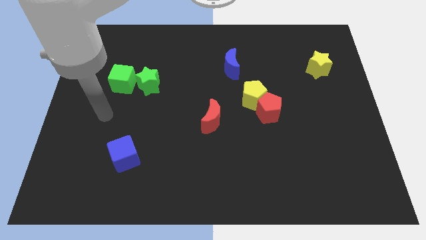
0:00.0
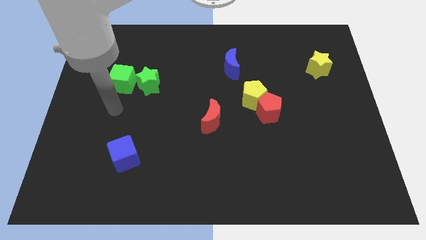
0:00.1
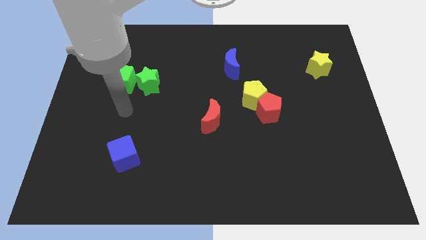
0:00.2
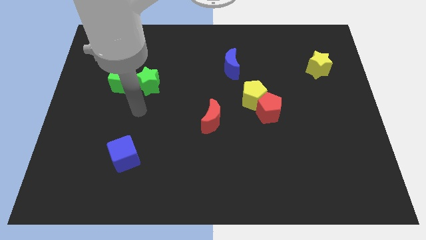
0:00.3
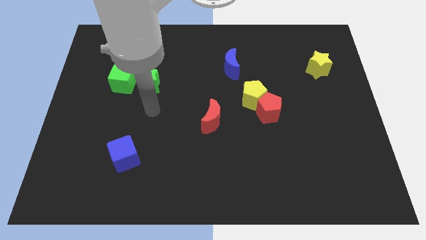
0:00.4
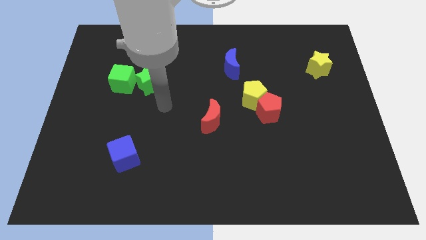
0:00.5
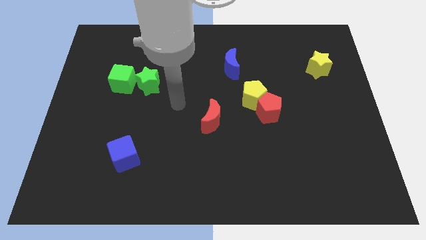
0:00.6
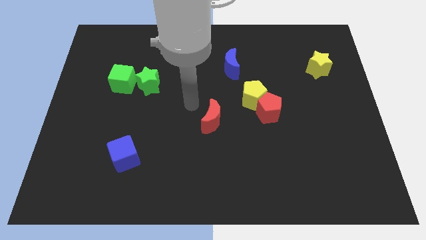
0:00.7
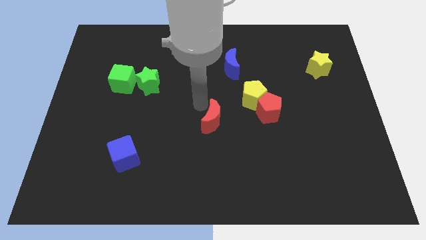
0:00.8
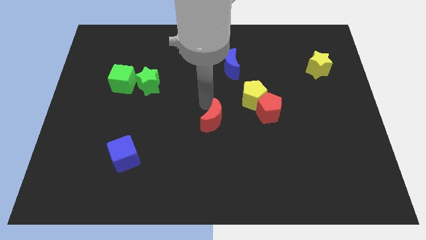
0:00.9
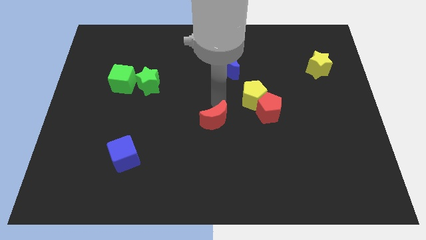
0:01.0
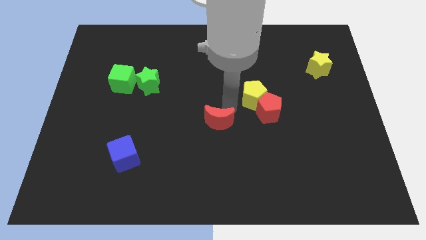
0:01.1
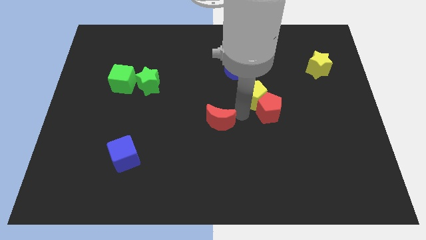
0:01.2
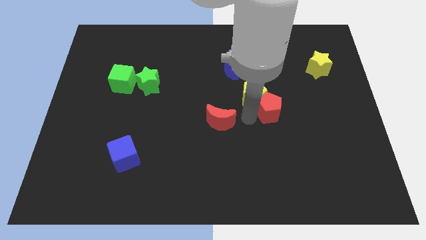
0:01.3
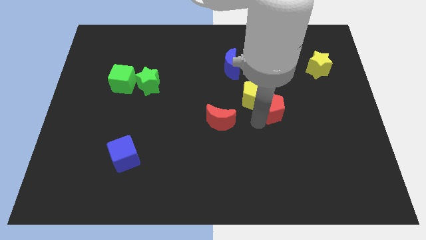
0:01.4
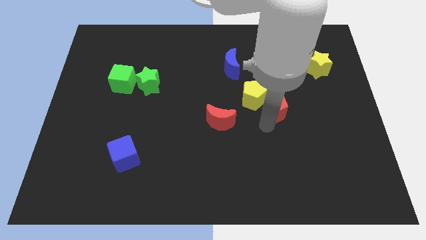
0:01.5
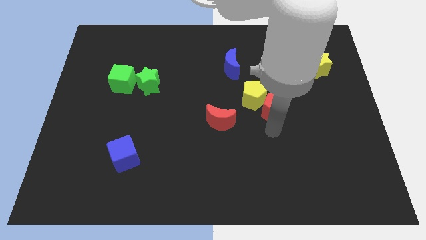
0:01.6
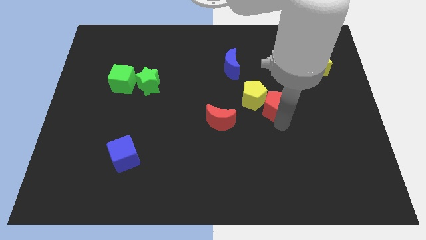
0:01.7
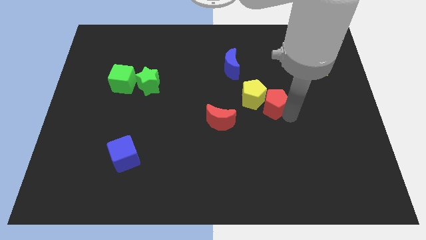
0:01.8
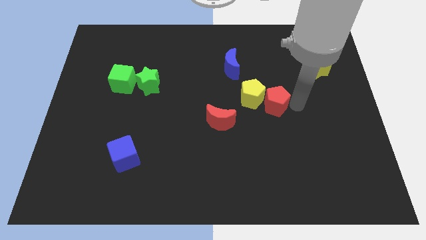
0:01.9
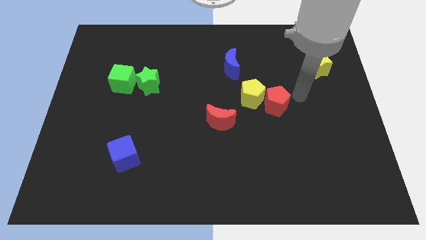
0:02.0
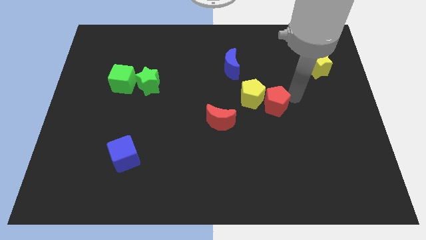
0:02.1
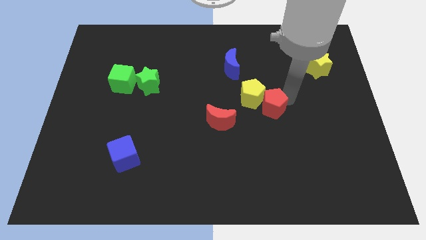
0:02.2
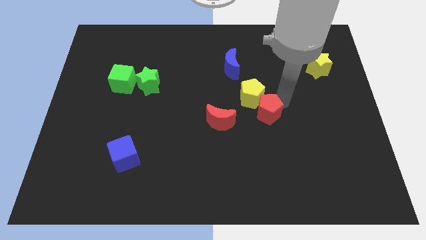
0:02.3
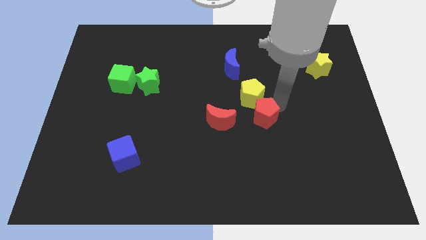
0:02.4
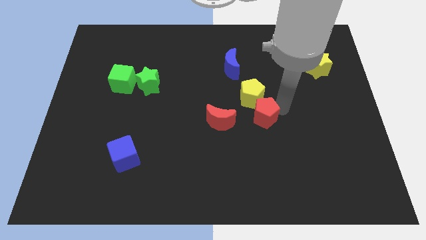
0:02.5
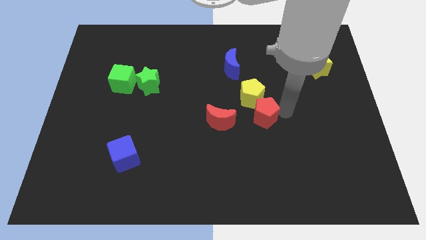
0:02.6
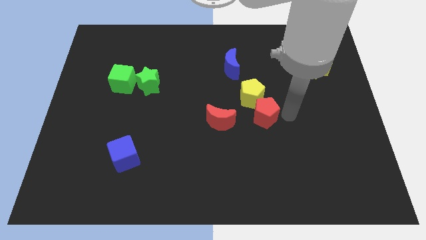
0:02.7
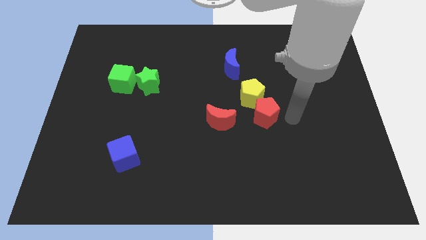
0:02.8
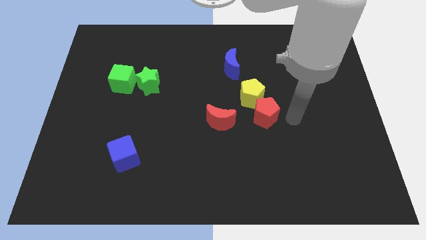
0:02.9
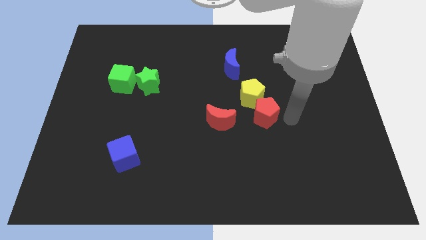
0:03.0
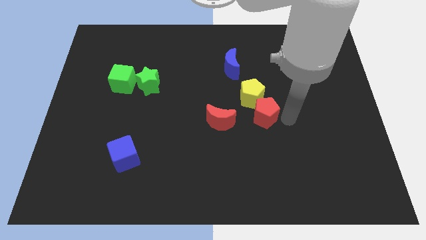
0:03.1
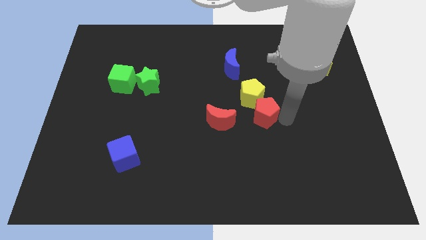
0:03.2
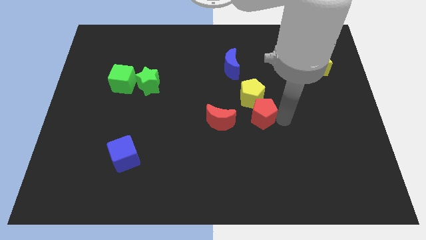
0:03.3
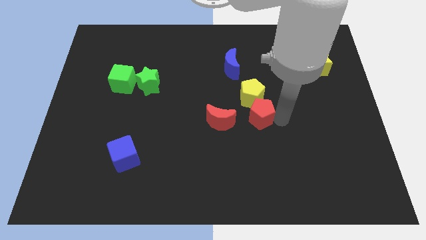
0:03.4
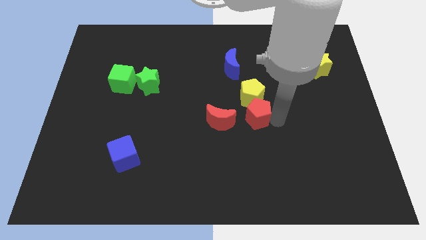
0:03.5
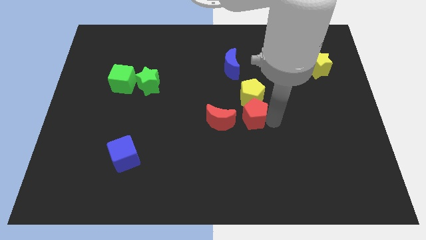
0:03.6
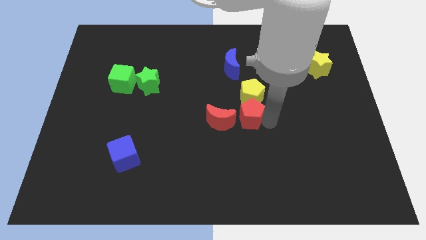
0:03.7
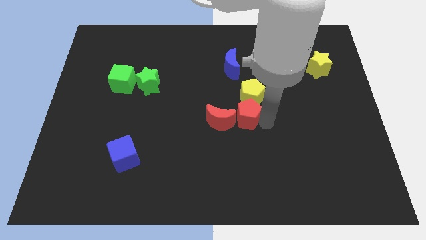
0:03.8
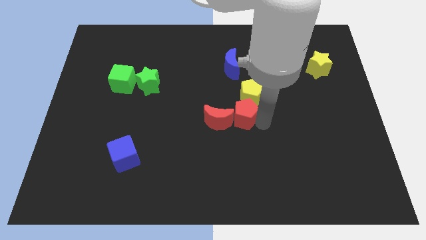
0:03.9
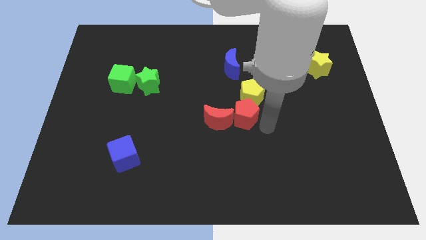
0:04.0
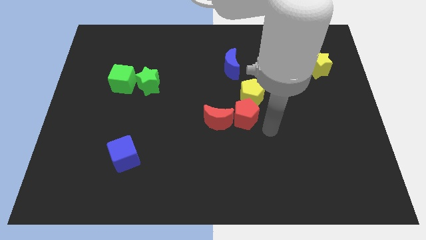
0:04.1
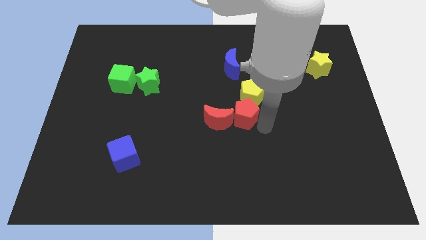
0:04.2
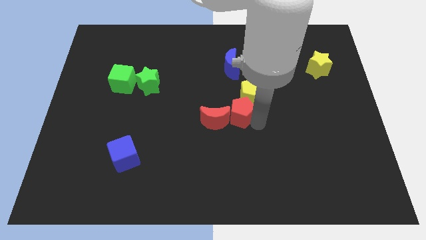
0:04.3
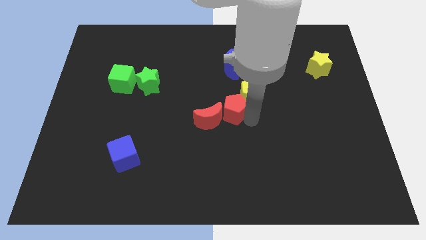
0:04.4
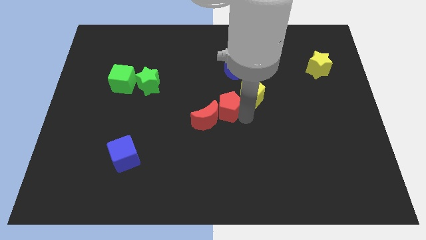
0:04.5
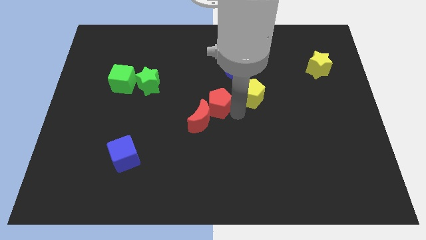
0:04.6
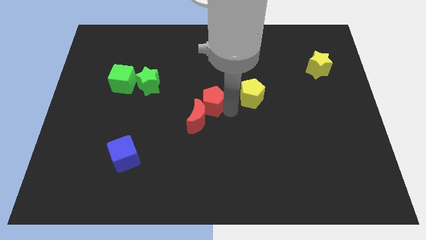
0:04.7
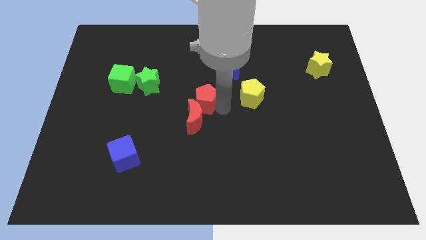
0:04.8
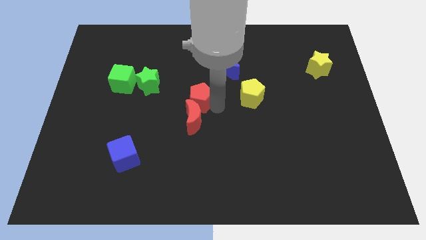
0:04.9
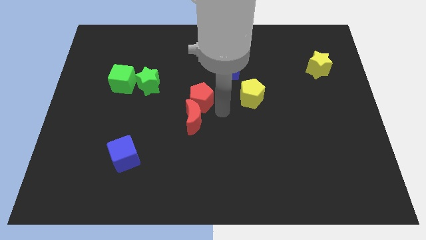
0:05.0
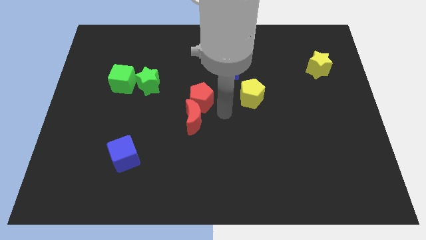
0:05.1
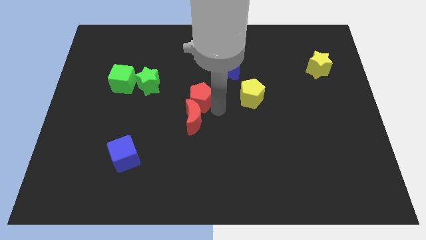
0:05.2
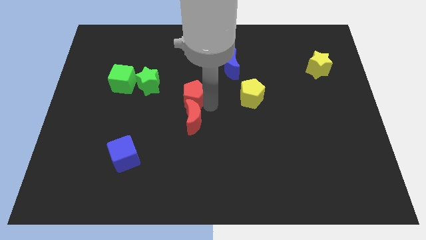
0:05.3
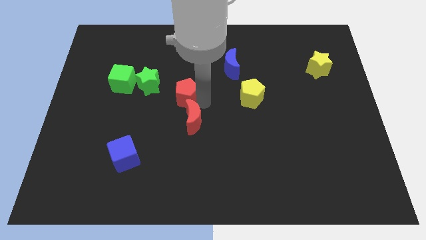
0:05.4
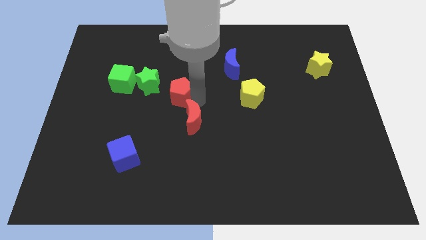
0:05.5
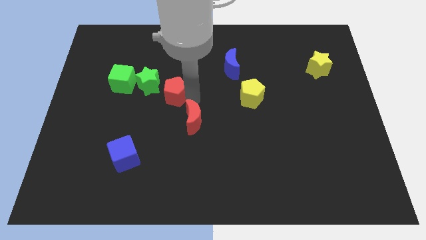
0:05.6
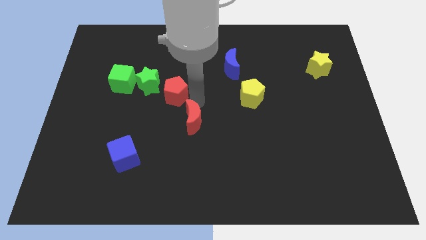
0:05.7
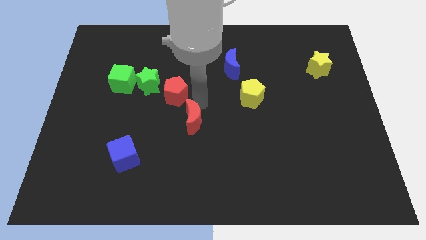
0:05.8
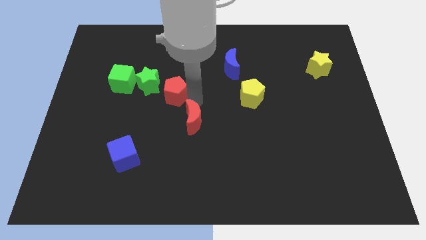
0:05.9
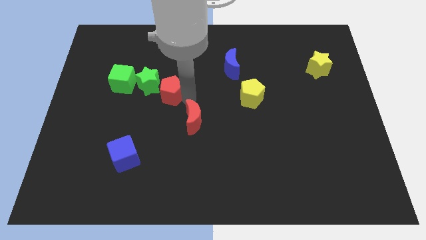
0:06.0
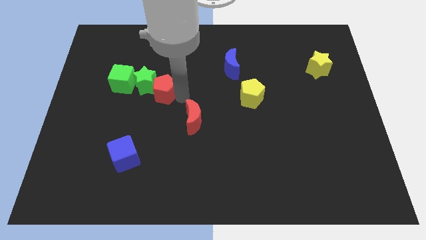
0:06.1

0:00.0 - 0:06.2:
push the red pentagon next to the green star
